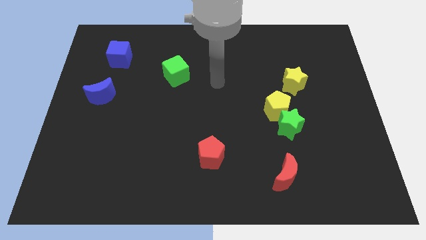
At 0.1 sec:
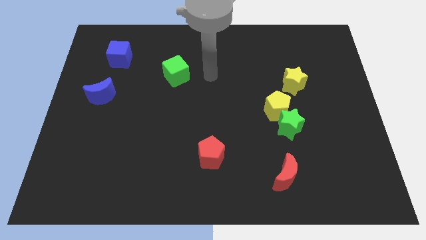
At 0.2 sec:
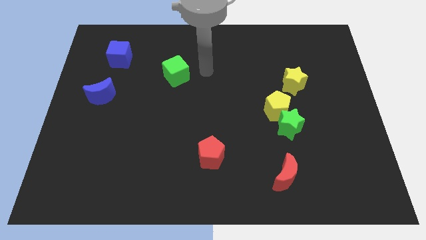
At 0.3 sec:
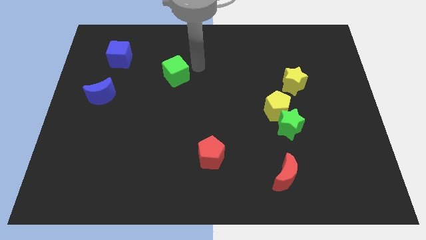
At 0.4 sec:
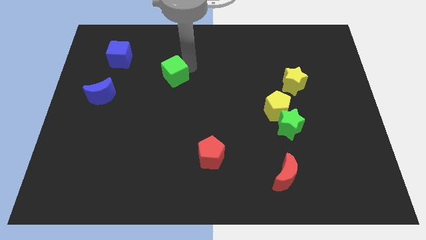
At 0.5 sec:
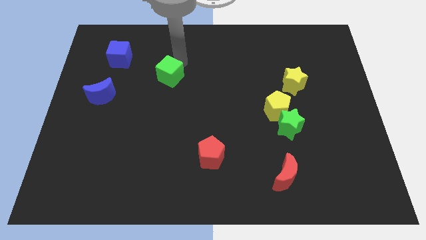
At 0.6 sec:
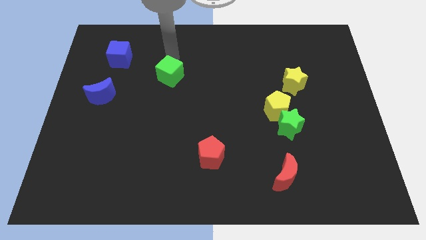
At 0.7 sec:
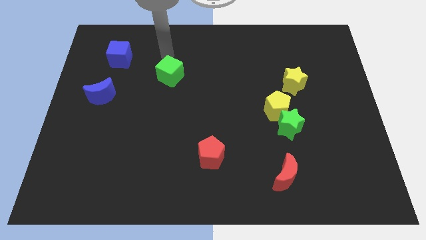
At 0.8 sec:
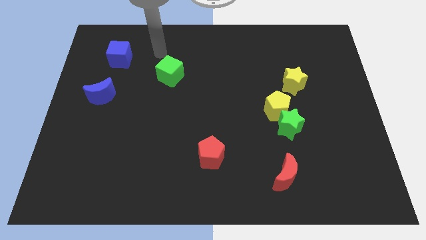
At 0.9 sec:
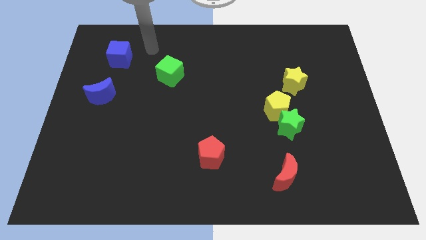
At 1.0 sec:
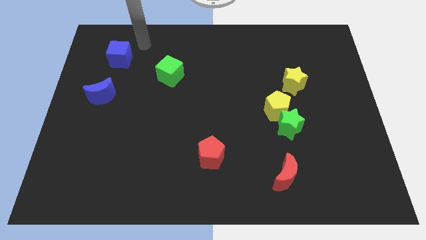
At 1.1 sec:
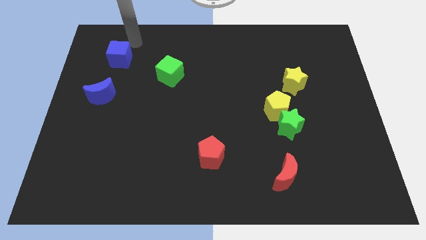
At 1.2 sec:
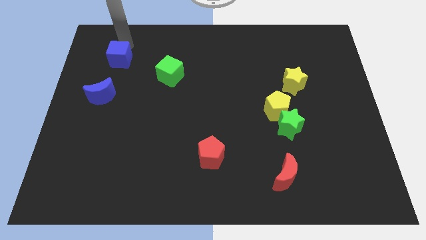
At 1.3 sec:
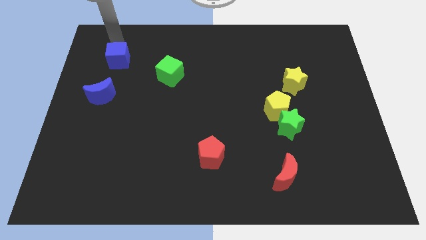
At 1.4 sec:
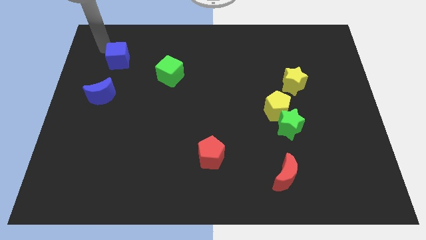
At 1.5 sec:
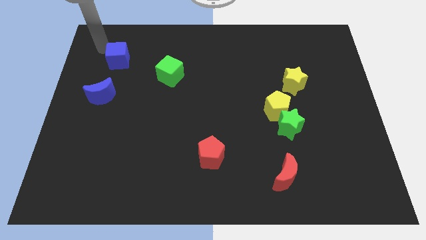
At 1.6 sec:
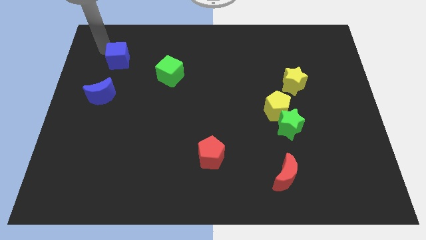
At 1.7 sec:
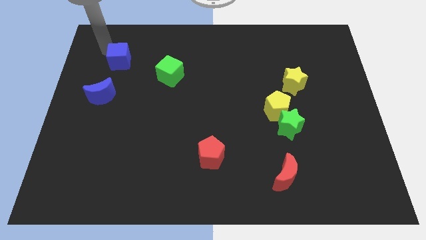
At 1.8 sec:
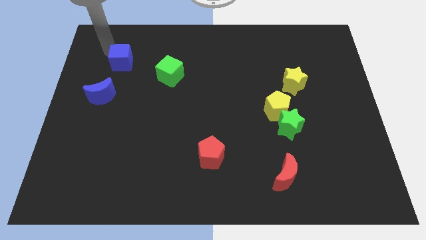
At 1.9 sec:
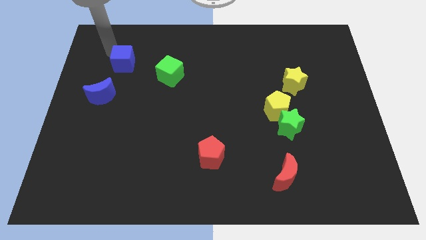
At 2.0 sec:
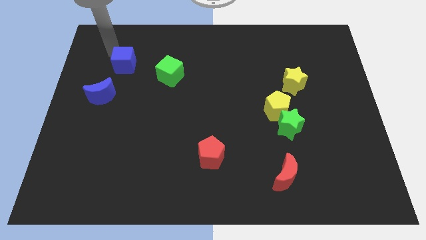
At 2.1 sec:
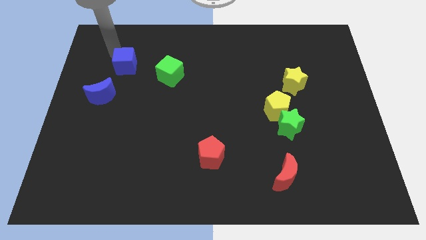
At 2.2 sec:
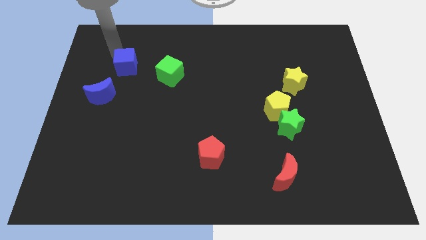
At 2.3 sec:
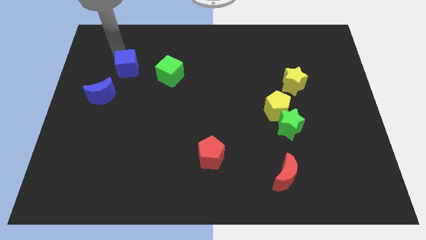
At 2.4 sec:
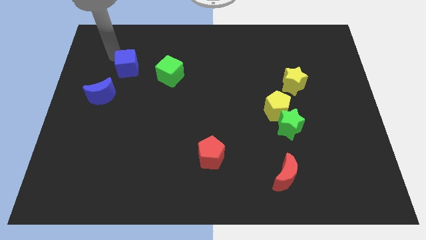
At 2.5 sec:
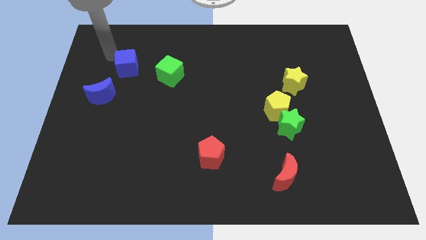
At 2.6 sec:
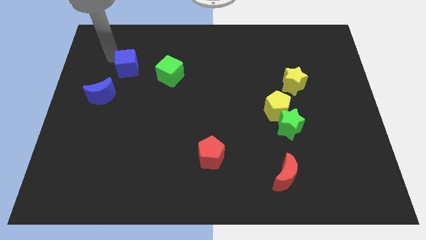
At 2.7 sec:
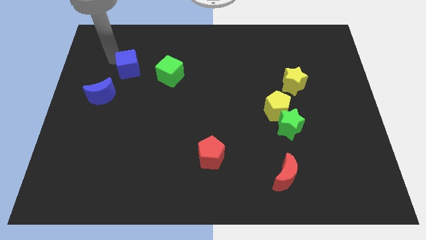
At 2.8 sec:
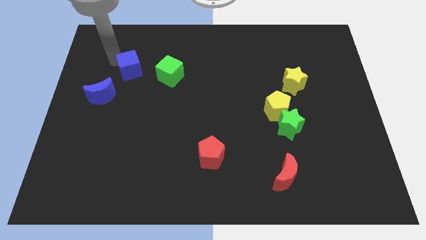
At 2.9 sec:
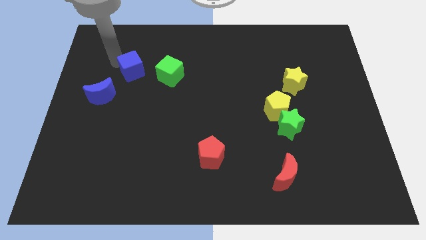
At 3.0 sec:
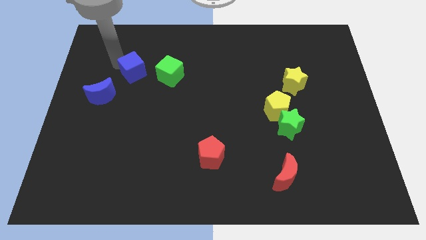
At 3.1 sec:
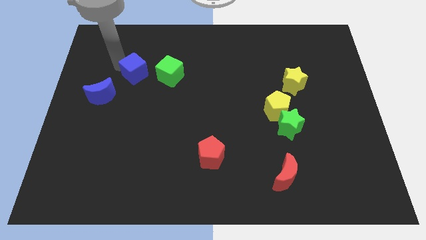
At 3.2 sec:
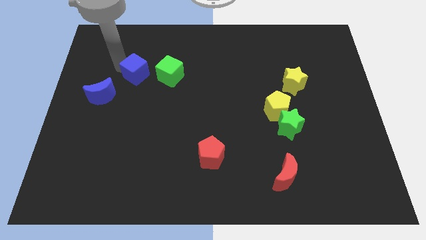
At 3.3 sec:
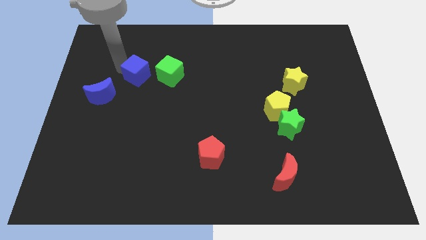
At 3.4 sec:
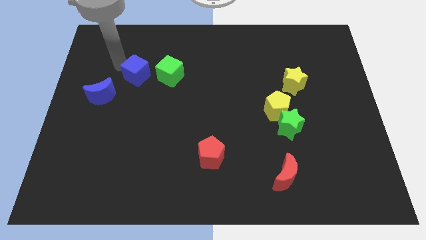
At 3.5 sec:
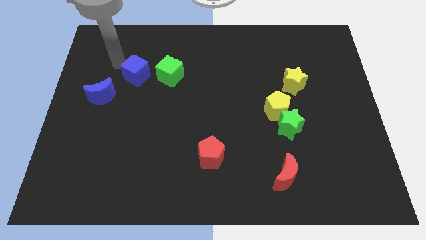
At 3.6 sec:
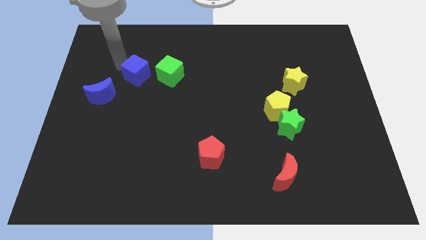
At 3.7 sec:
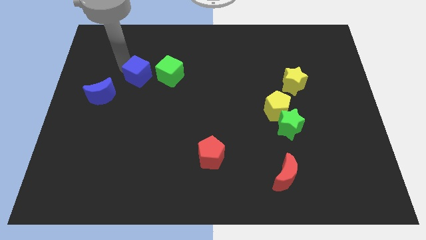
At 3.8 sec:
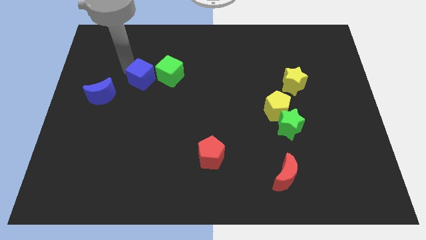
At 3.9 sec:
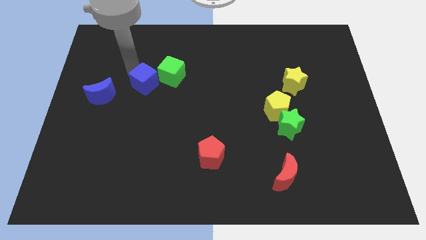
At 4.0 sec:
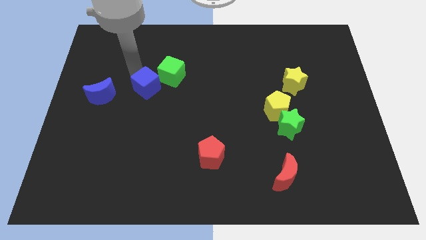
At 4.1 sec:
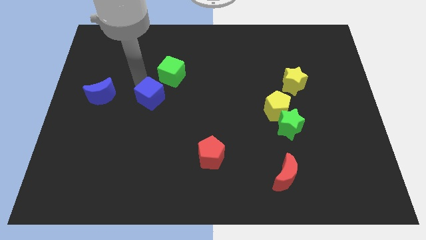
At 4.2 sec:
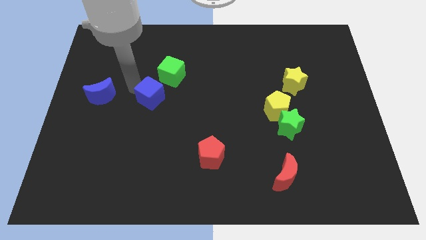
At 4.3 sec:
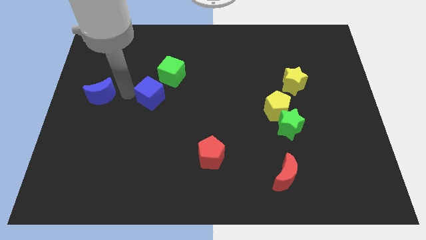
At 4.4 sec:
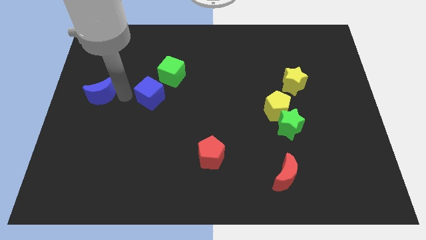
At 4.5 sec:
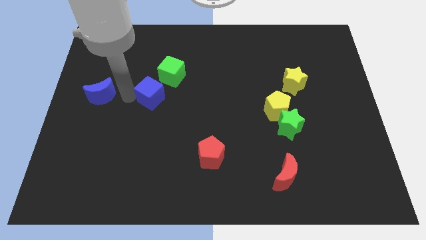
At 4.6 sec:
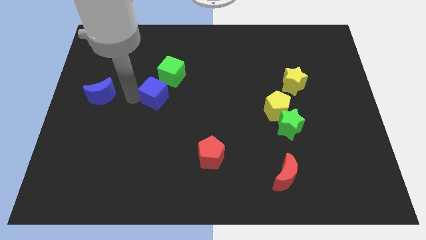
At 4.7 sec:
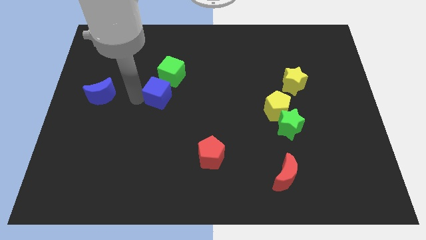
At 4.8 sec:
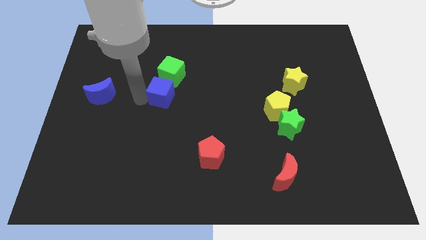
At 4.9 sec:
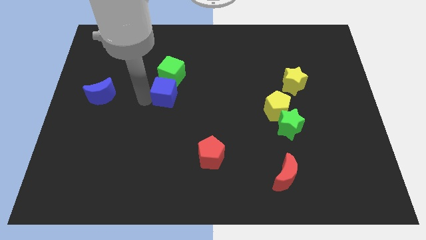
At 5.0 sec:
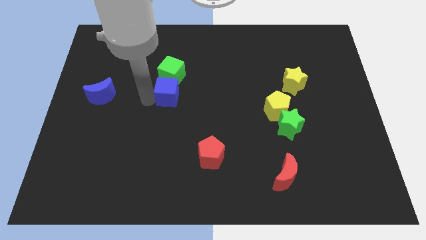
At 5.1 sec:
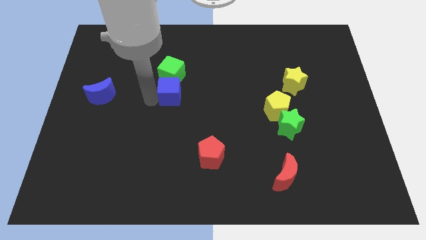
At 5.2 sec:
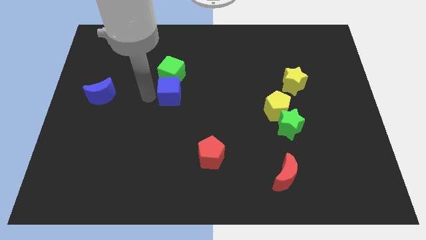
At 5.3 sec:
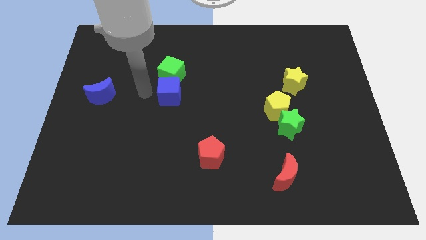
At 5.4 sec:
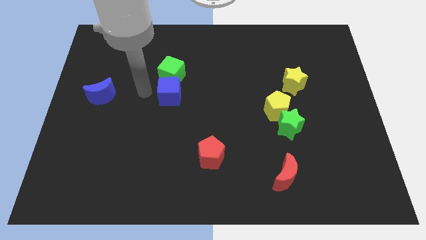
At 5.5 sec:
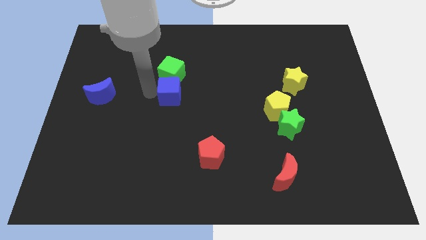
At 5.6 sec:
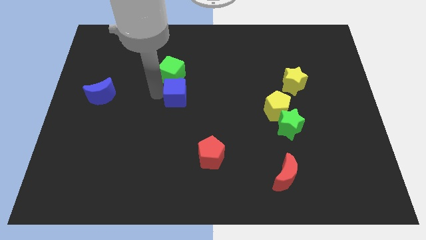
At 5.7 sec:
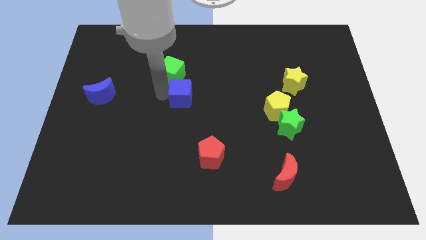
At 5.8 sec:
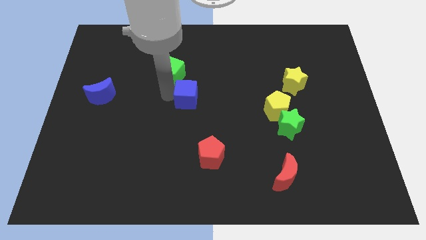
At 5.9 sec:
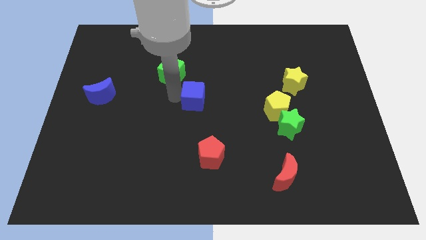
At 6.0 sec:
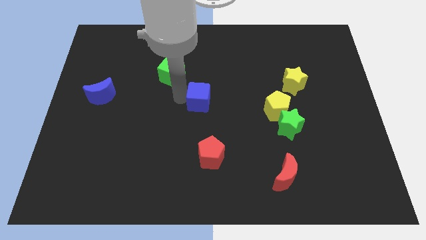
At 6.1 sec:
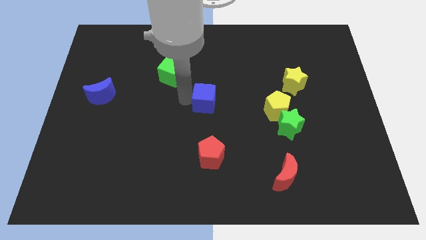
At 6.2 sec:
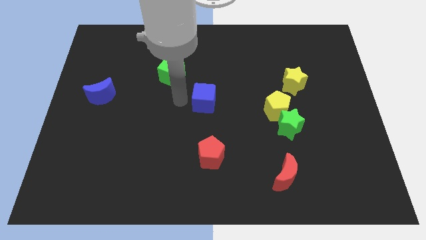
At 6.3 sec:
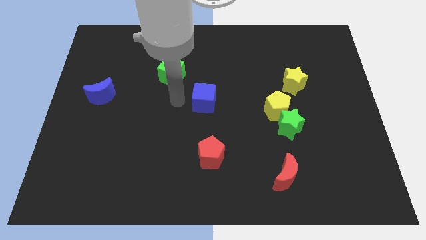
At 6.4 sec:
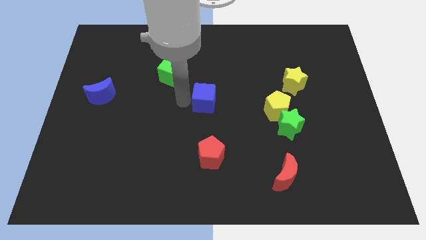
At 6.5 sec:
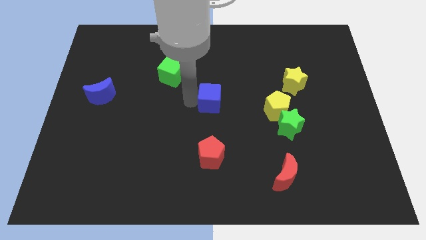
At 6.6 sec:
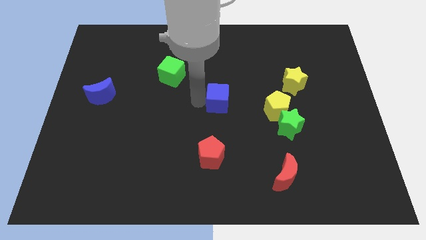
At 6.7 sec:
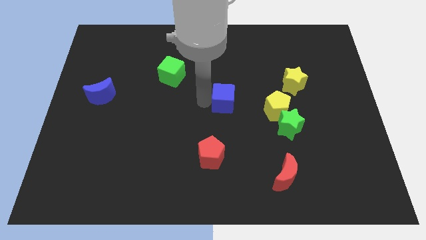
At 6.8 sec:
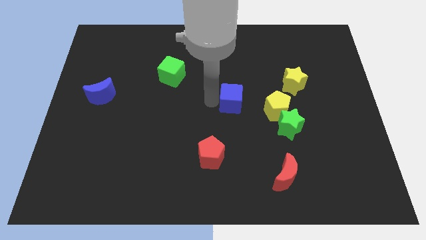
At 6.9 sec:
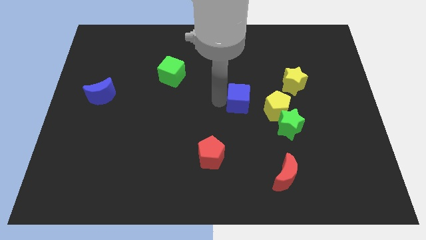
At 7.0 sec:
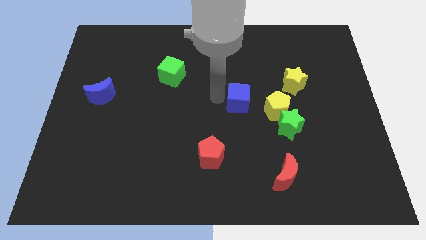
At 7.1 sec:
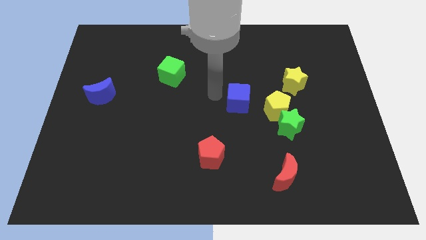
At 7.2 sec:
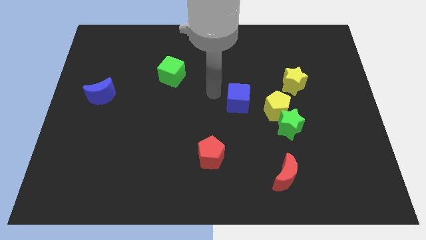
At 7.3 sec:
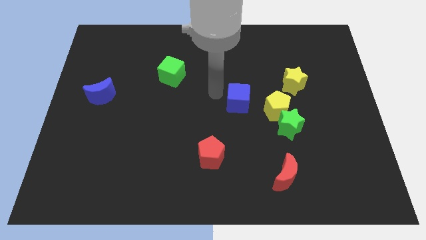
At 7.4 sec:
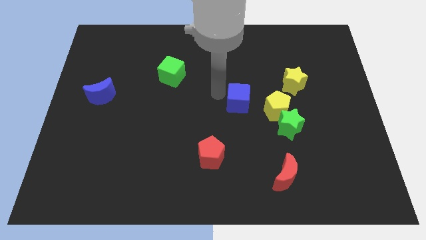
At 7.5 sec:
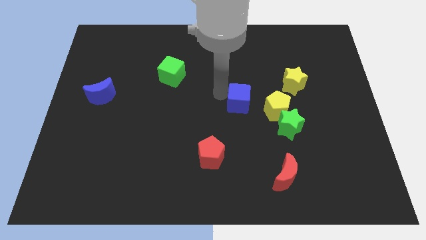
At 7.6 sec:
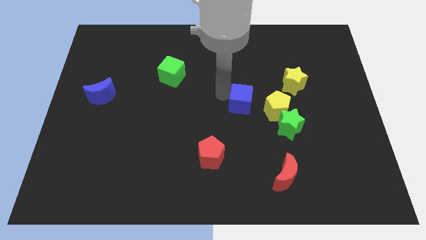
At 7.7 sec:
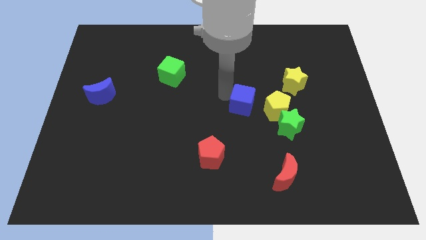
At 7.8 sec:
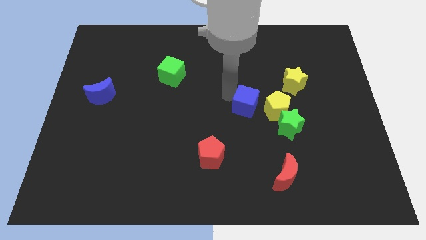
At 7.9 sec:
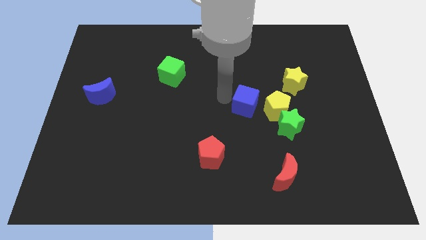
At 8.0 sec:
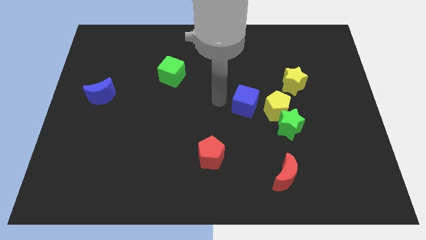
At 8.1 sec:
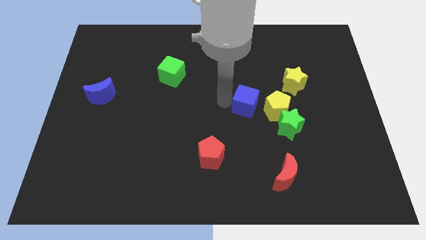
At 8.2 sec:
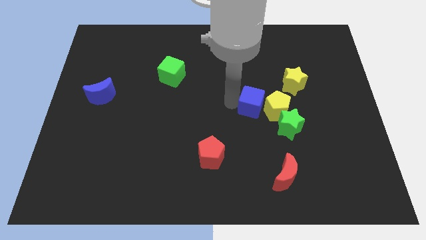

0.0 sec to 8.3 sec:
slide the blue cube next to the yellow pentagon
